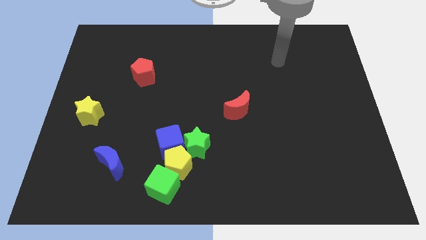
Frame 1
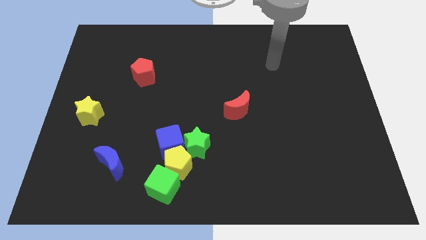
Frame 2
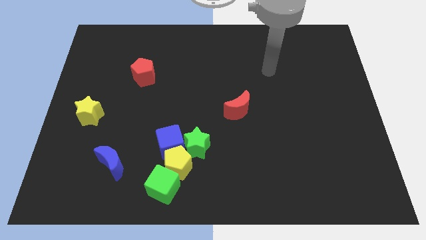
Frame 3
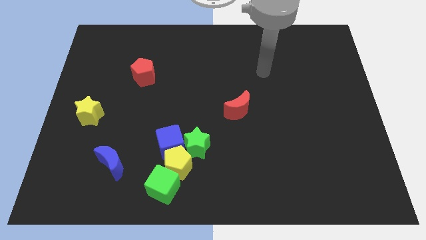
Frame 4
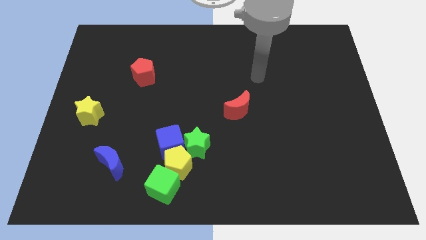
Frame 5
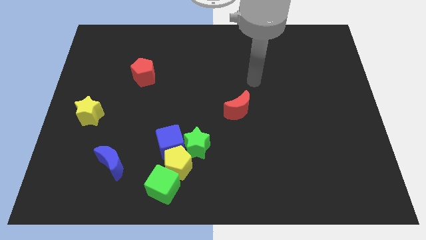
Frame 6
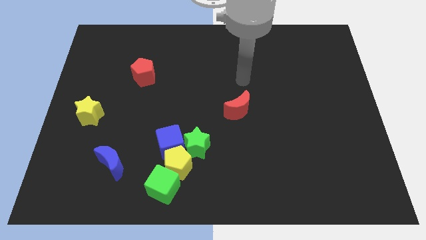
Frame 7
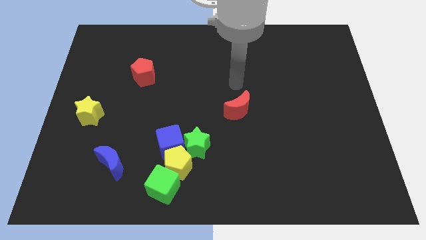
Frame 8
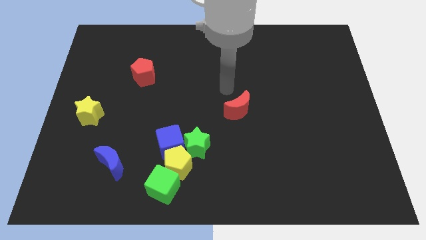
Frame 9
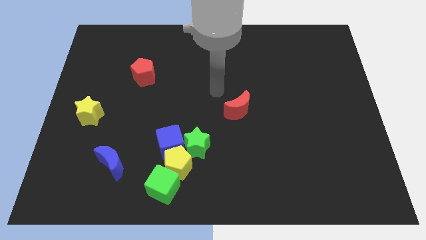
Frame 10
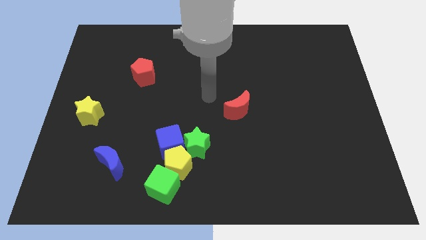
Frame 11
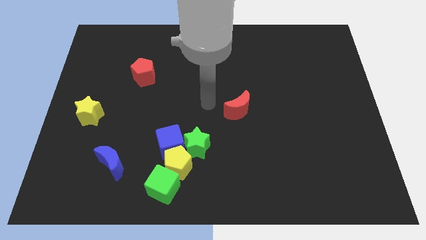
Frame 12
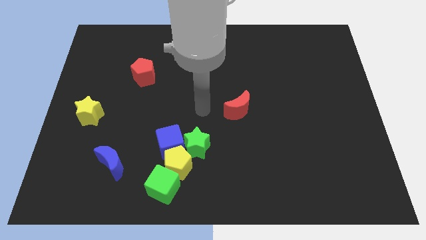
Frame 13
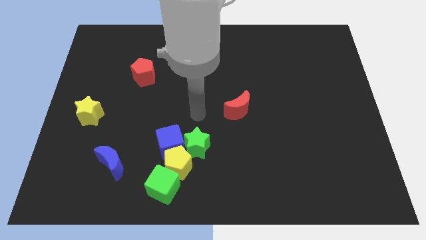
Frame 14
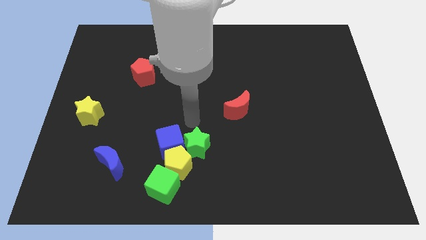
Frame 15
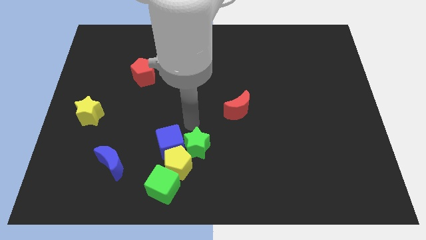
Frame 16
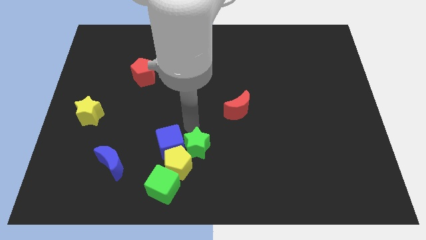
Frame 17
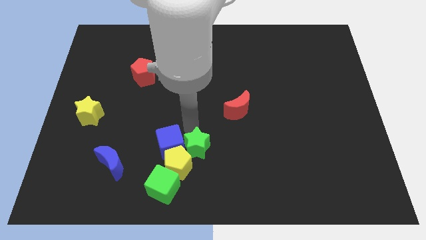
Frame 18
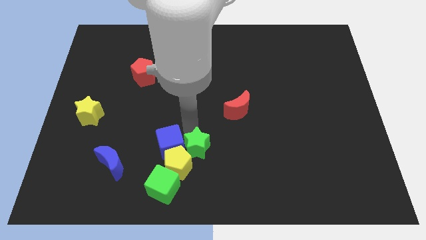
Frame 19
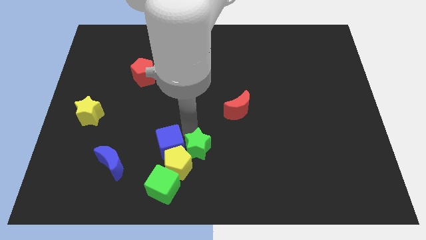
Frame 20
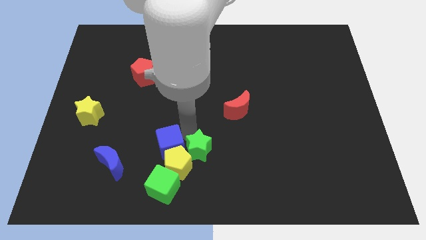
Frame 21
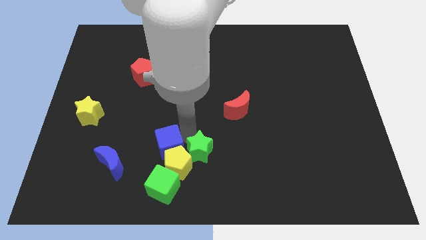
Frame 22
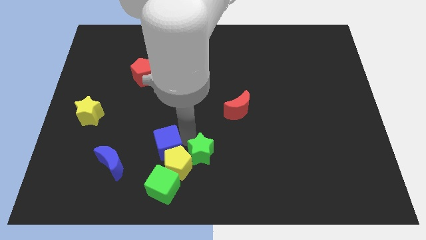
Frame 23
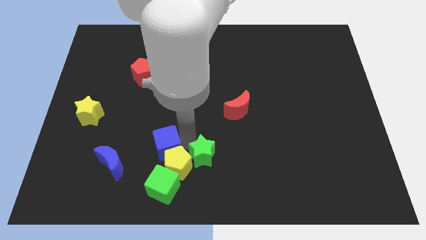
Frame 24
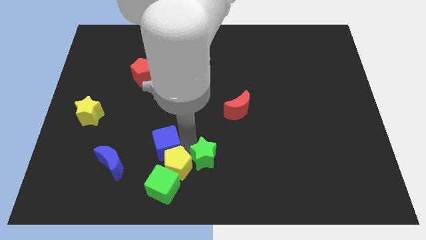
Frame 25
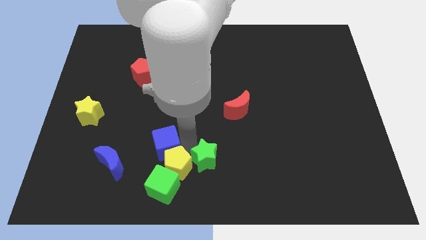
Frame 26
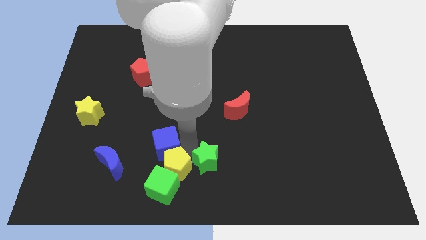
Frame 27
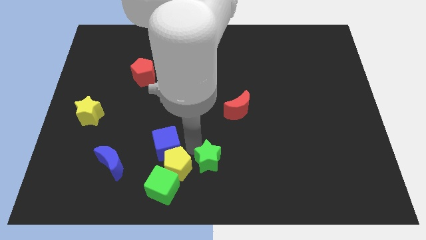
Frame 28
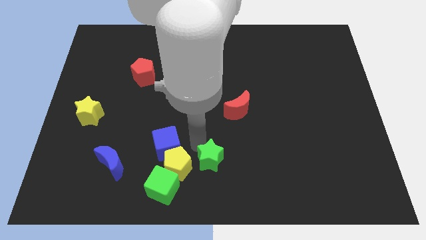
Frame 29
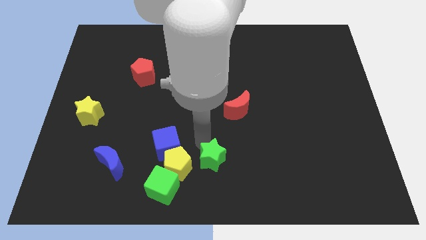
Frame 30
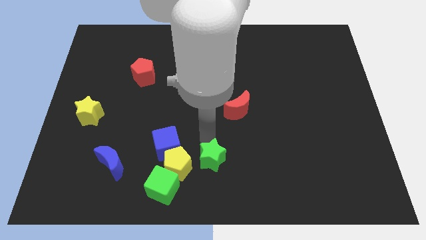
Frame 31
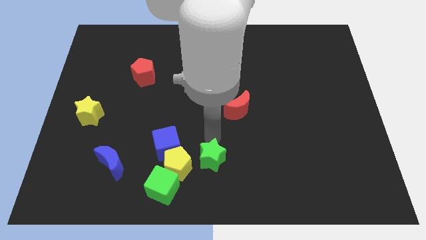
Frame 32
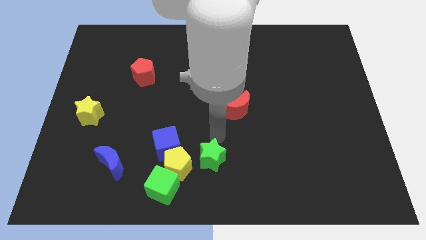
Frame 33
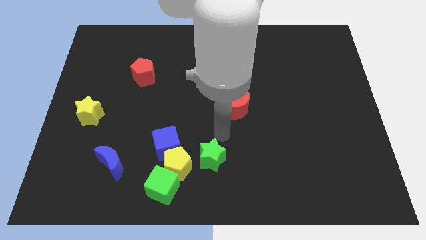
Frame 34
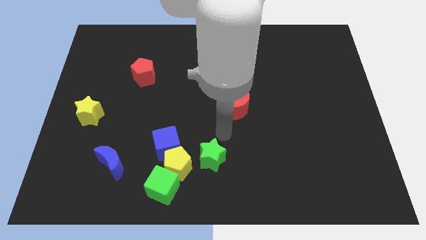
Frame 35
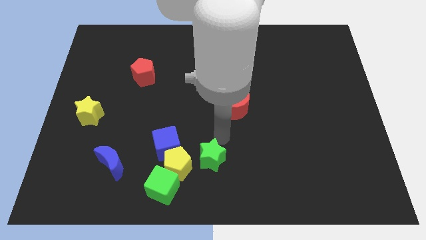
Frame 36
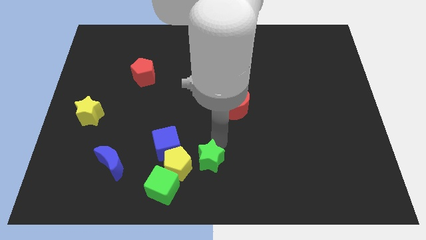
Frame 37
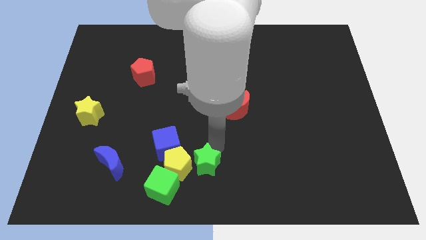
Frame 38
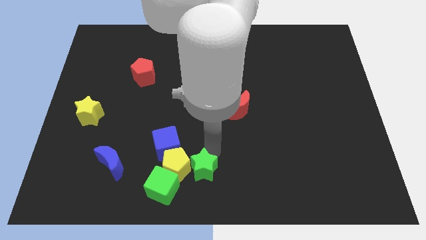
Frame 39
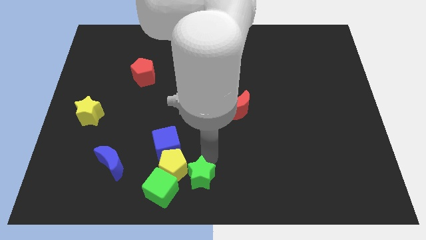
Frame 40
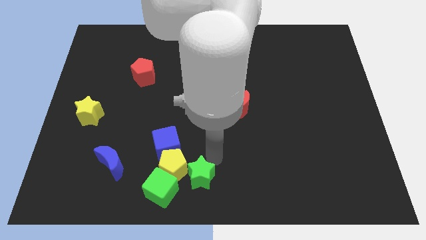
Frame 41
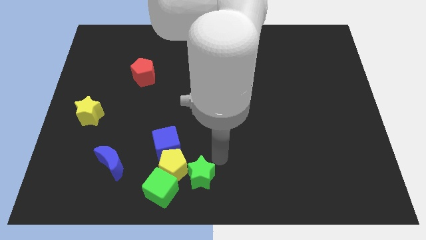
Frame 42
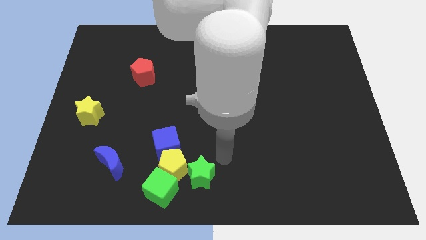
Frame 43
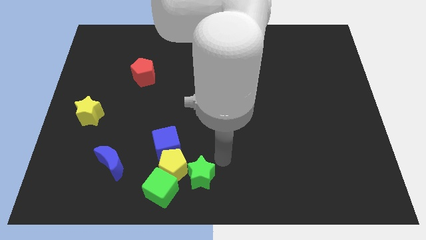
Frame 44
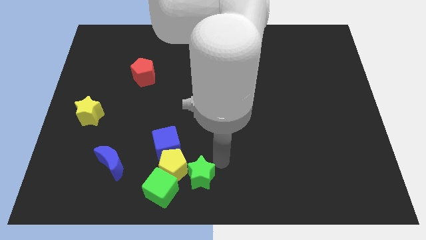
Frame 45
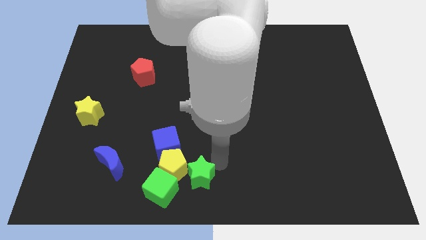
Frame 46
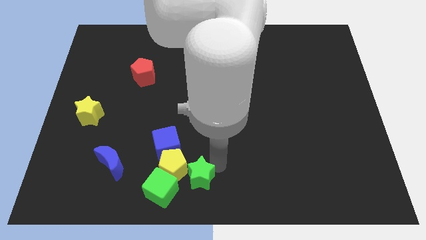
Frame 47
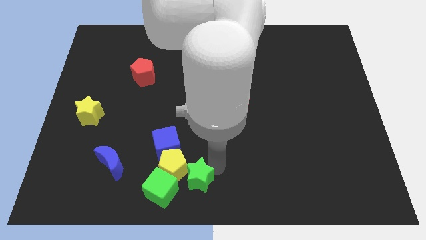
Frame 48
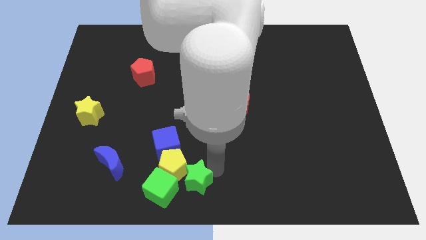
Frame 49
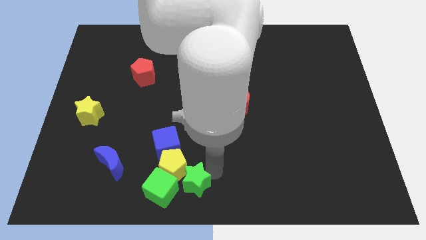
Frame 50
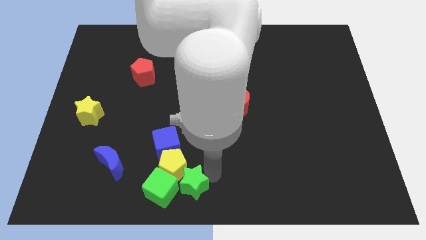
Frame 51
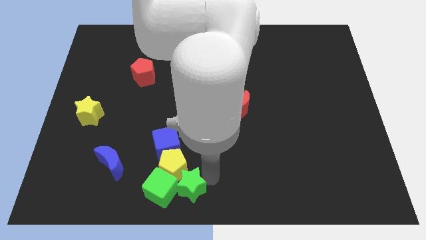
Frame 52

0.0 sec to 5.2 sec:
put the green star next to the green cube

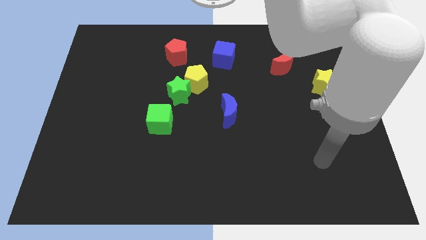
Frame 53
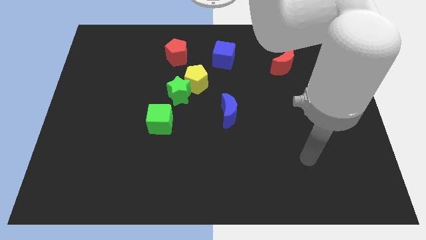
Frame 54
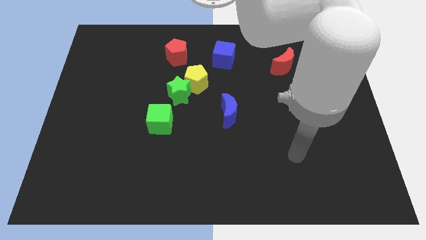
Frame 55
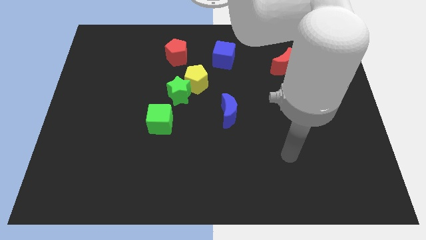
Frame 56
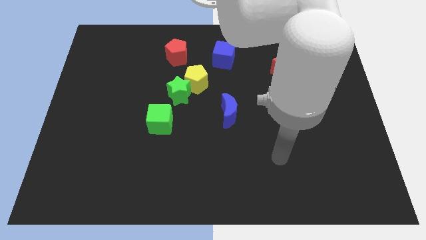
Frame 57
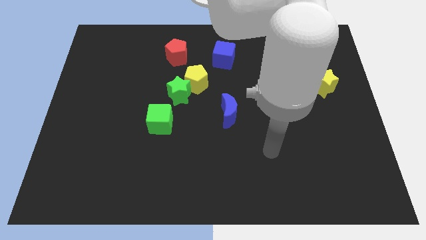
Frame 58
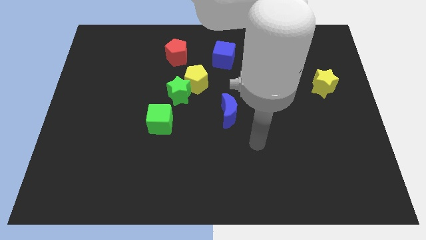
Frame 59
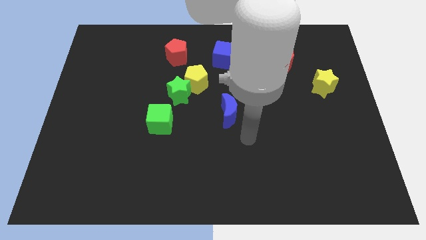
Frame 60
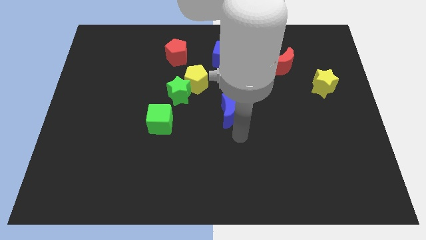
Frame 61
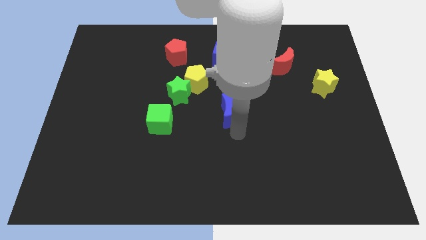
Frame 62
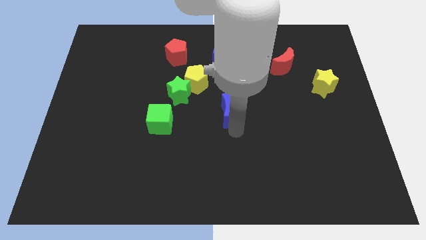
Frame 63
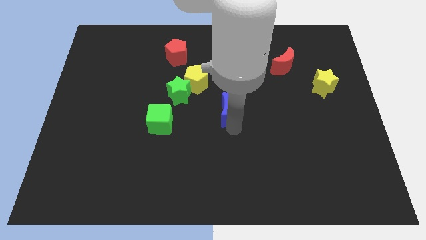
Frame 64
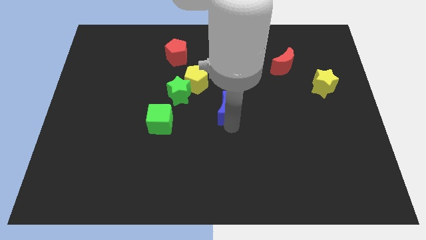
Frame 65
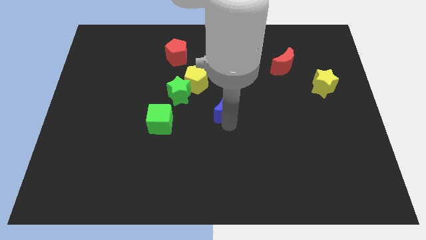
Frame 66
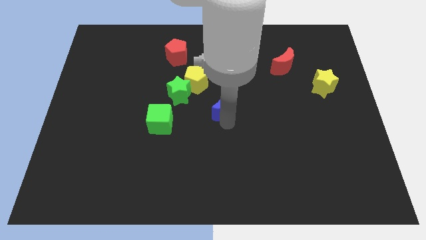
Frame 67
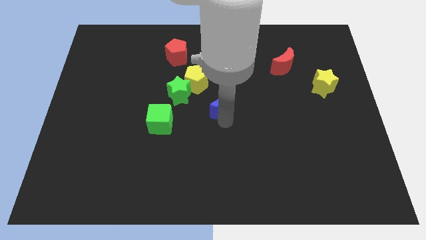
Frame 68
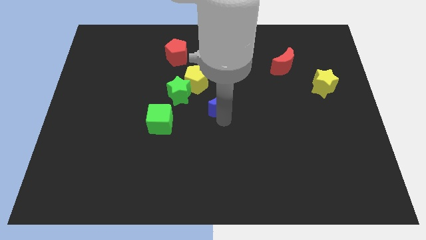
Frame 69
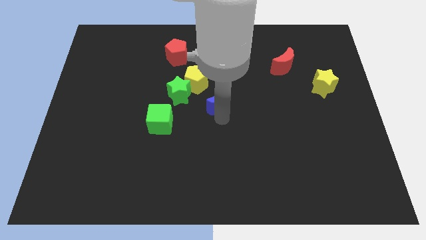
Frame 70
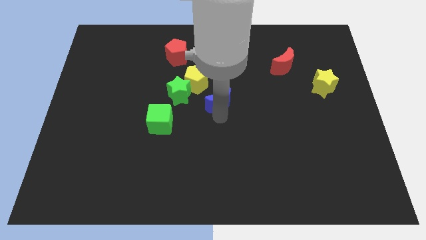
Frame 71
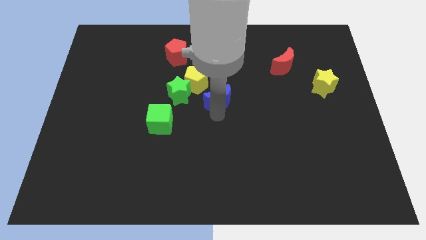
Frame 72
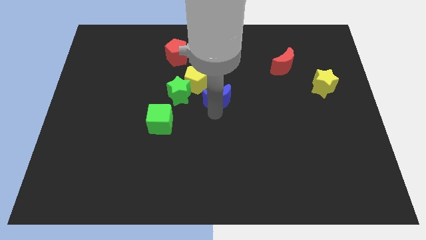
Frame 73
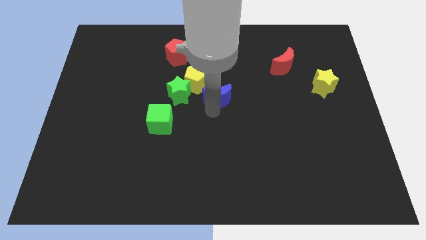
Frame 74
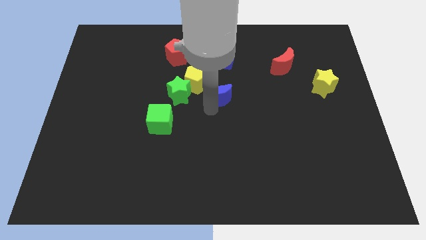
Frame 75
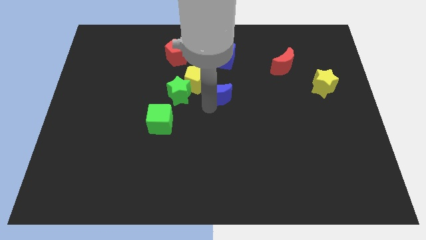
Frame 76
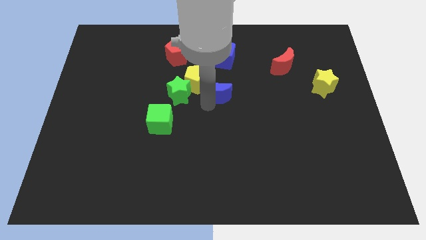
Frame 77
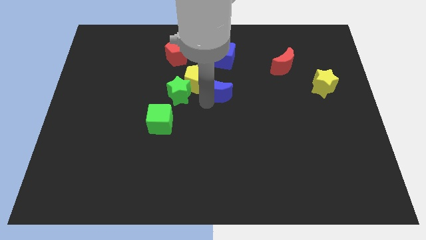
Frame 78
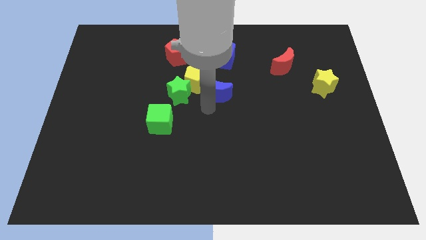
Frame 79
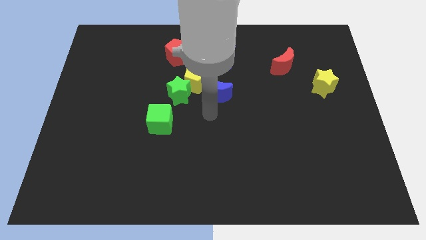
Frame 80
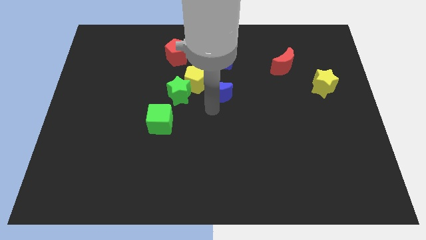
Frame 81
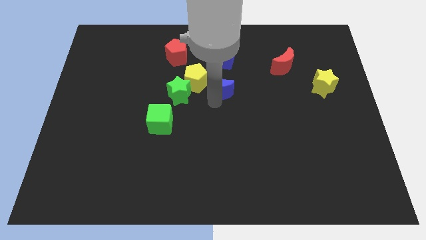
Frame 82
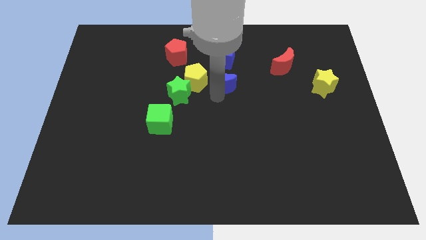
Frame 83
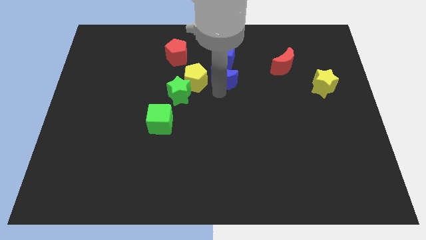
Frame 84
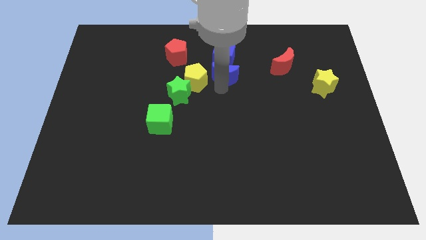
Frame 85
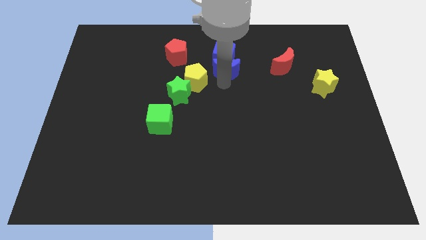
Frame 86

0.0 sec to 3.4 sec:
move the blue moon close to the blue cube
